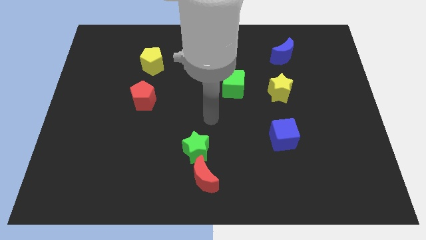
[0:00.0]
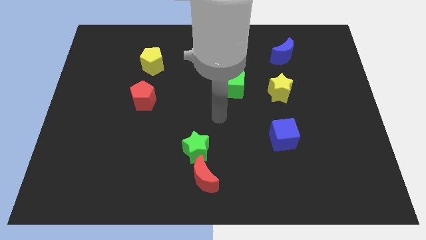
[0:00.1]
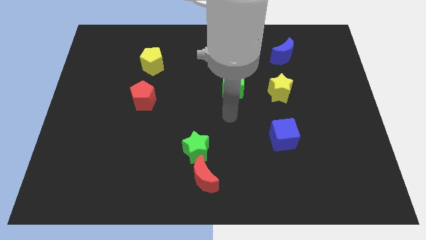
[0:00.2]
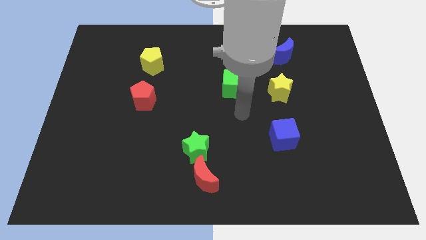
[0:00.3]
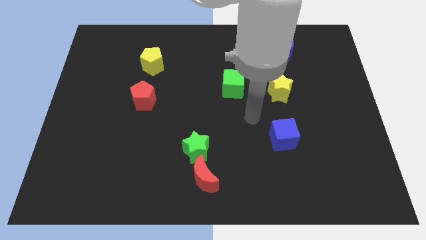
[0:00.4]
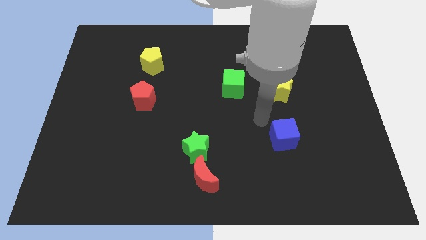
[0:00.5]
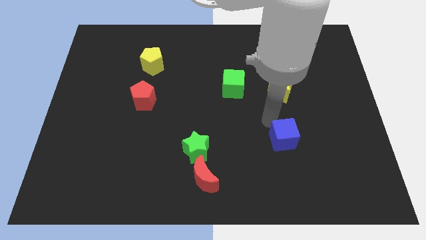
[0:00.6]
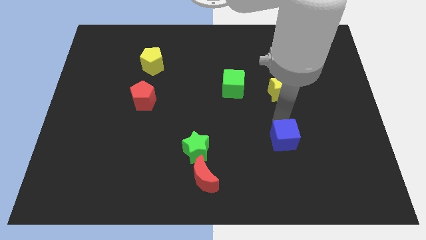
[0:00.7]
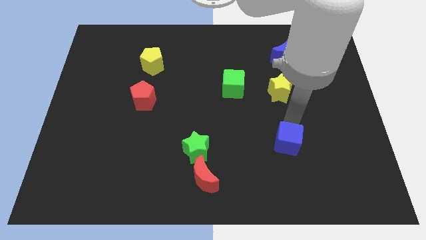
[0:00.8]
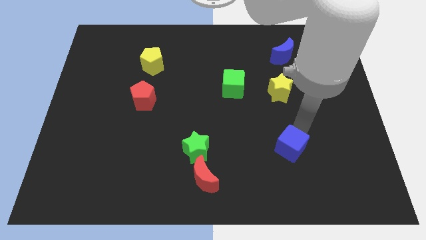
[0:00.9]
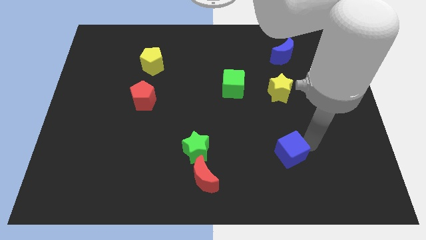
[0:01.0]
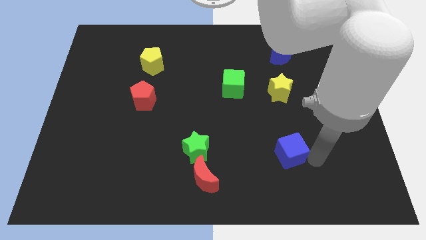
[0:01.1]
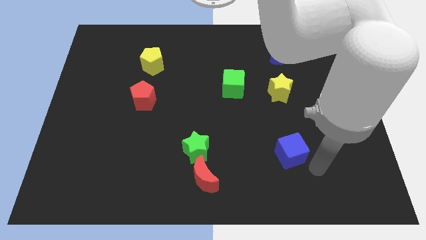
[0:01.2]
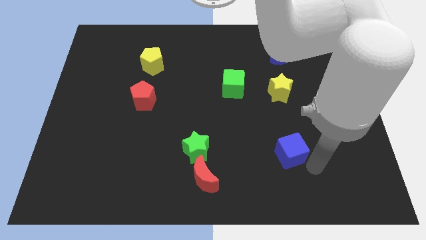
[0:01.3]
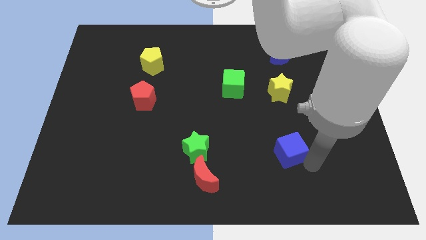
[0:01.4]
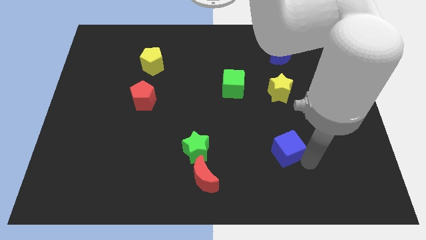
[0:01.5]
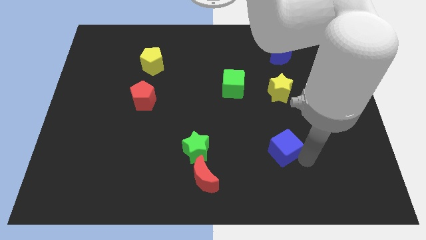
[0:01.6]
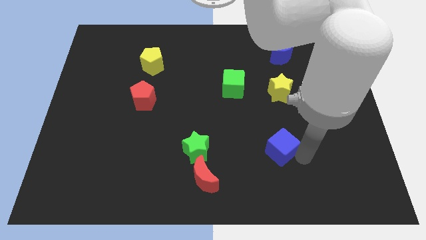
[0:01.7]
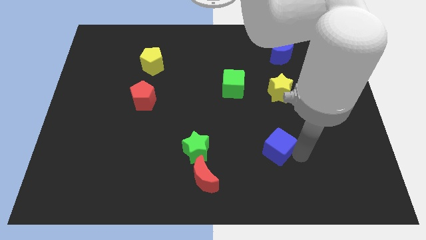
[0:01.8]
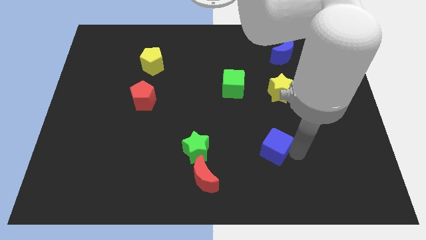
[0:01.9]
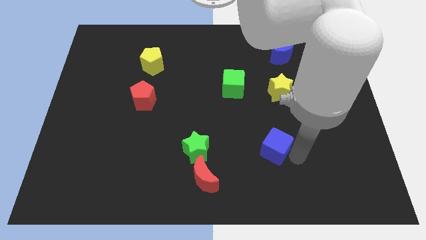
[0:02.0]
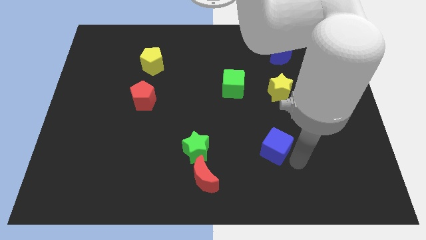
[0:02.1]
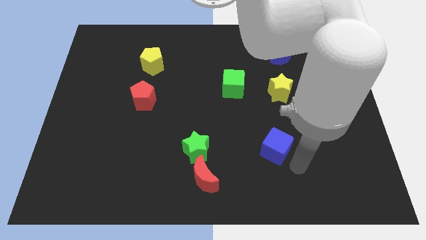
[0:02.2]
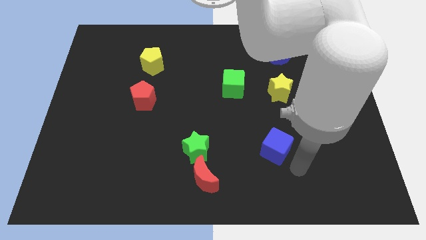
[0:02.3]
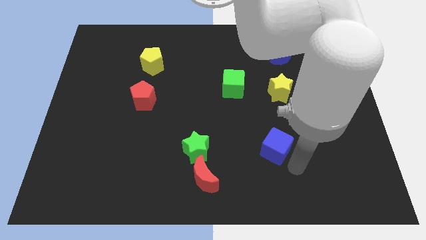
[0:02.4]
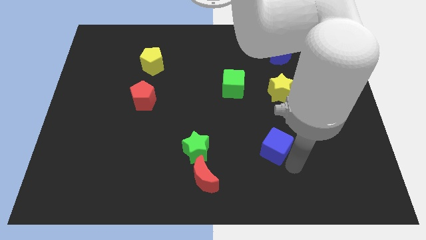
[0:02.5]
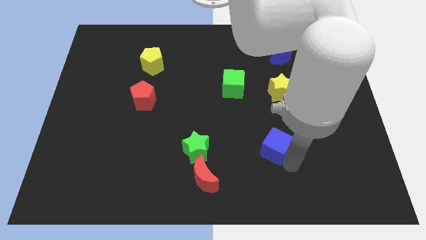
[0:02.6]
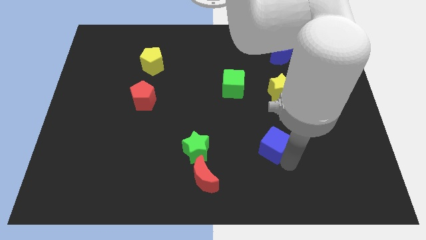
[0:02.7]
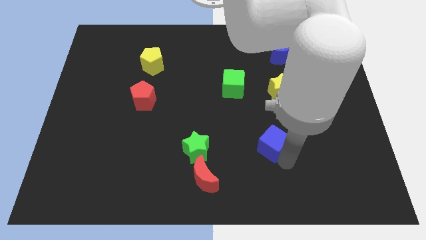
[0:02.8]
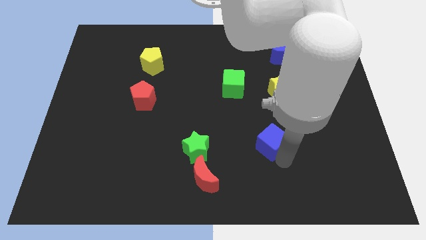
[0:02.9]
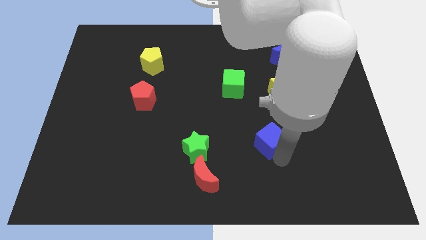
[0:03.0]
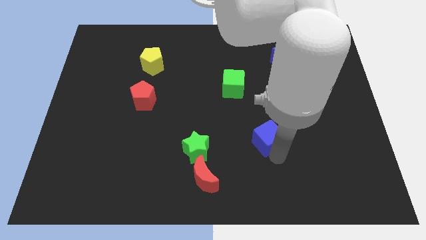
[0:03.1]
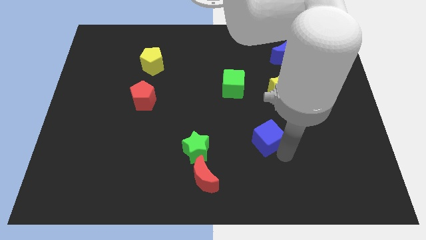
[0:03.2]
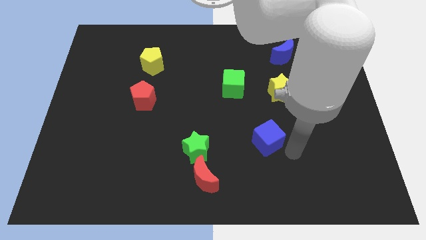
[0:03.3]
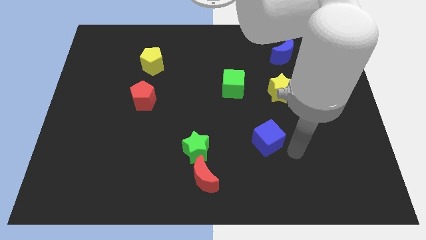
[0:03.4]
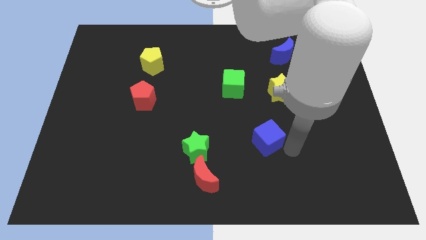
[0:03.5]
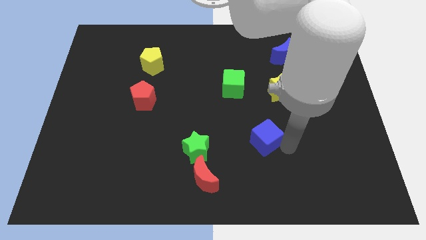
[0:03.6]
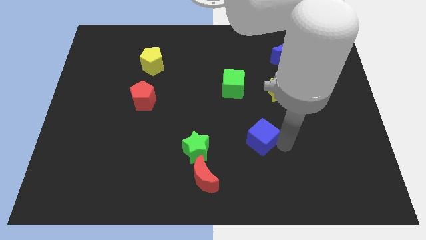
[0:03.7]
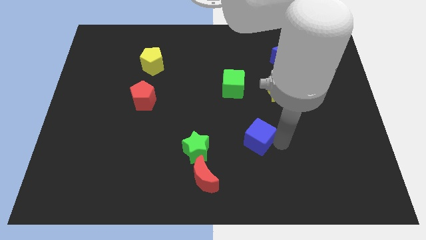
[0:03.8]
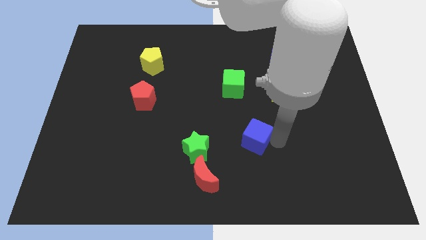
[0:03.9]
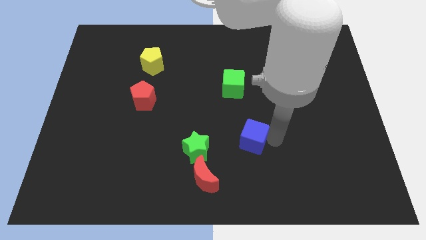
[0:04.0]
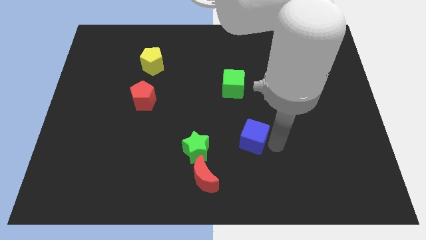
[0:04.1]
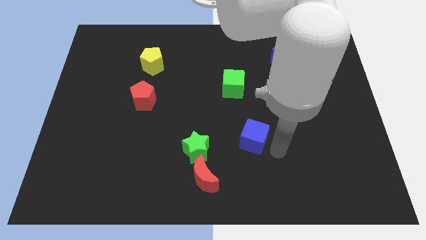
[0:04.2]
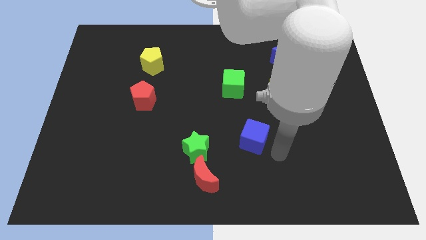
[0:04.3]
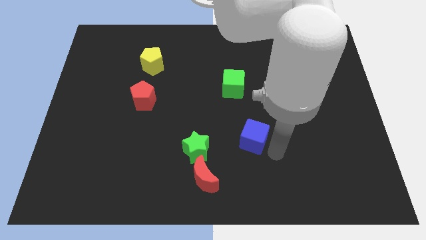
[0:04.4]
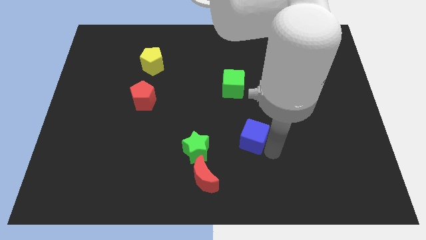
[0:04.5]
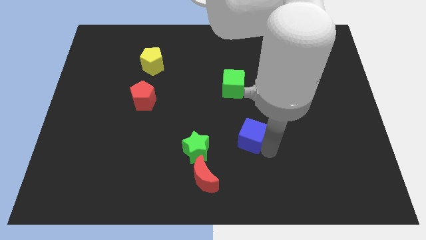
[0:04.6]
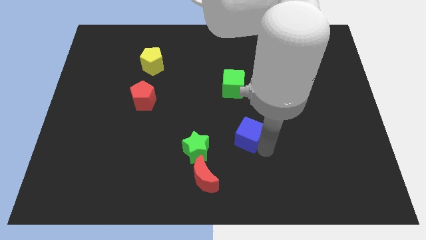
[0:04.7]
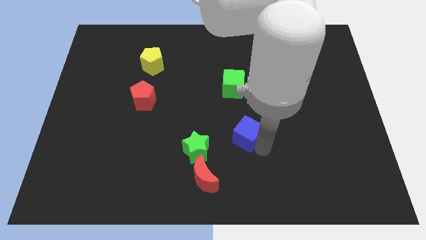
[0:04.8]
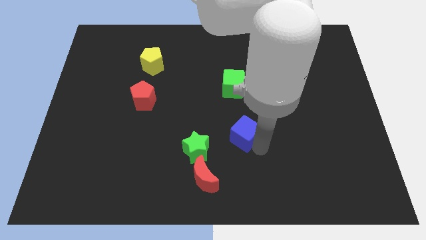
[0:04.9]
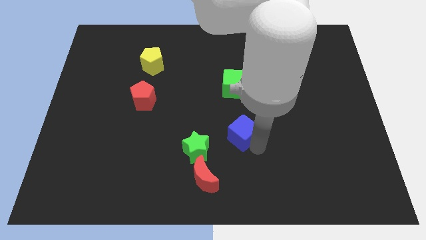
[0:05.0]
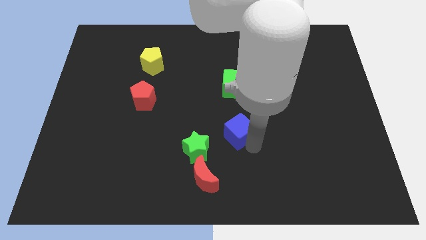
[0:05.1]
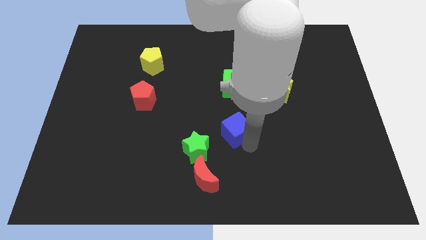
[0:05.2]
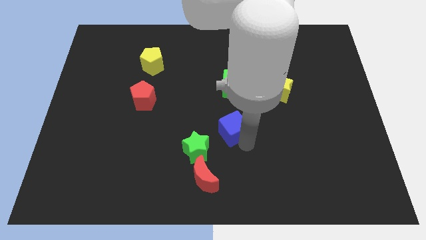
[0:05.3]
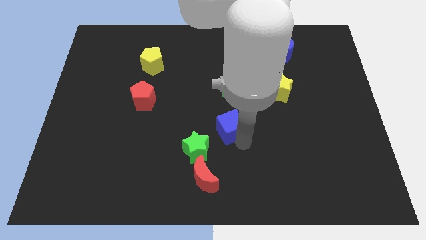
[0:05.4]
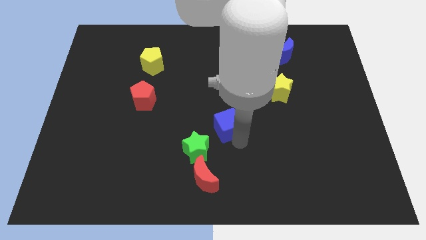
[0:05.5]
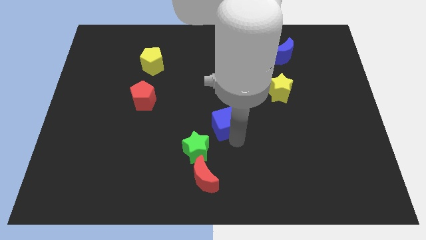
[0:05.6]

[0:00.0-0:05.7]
put the blue cube above the red moon
